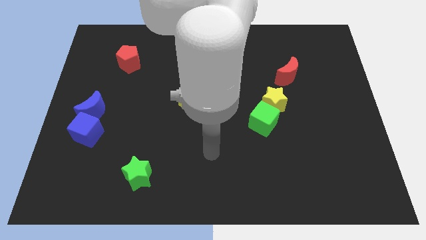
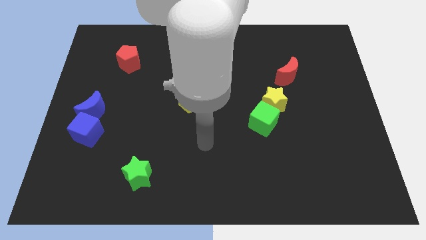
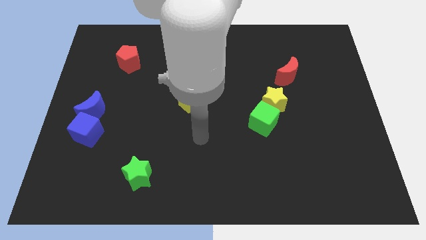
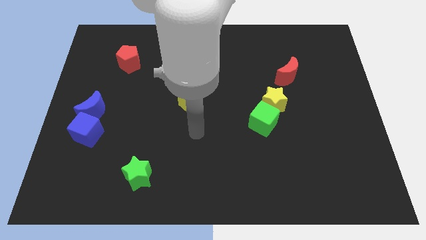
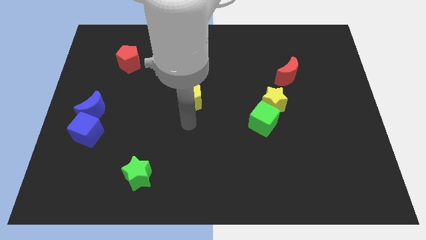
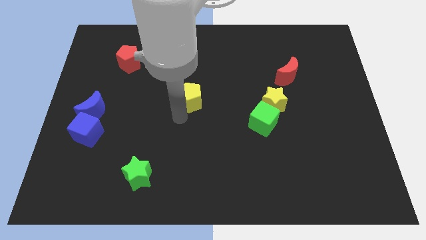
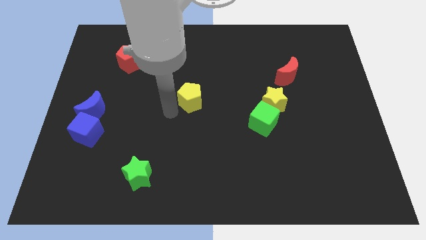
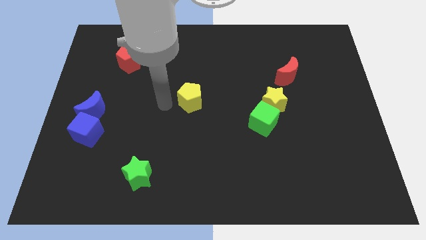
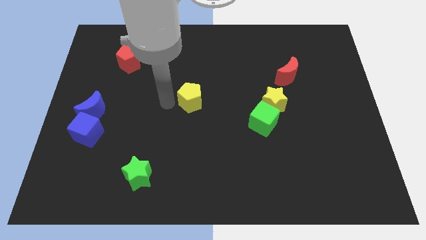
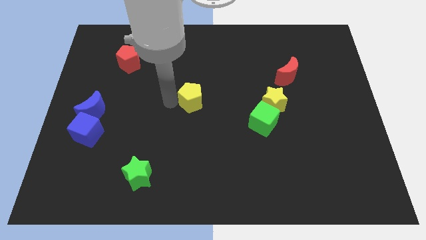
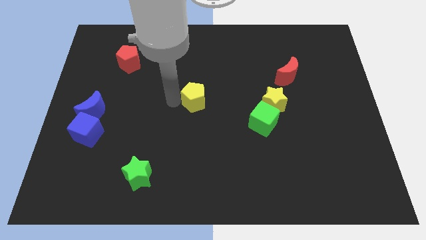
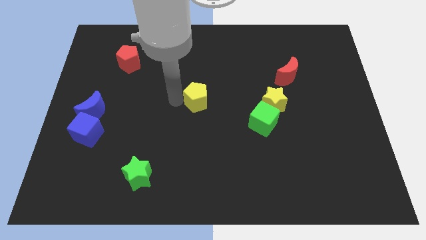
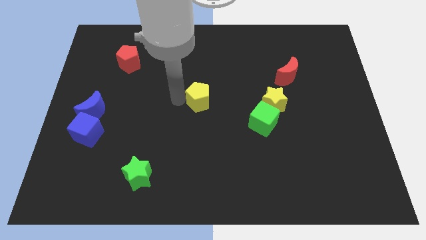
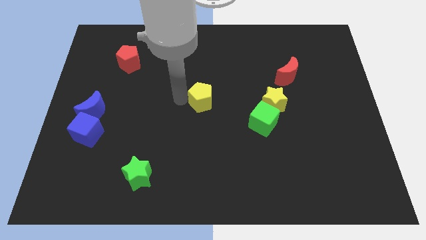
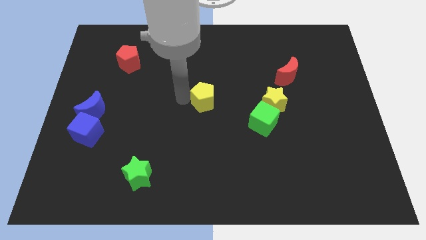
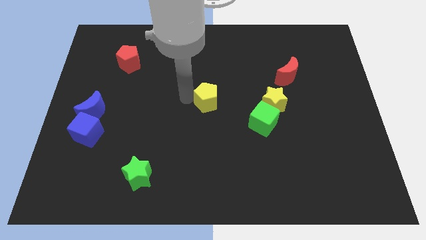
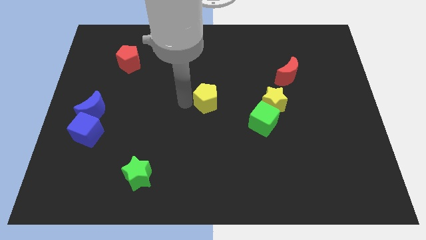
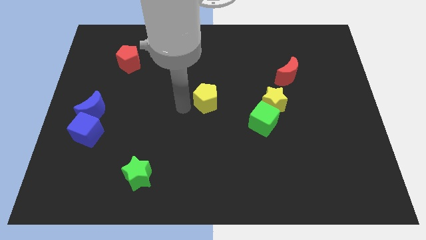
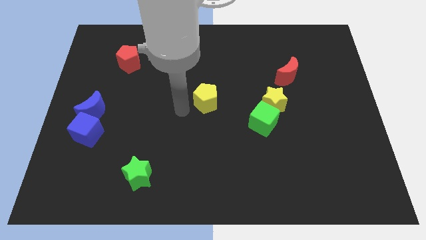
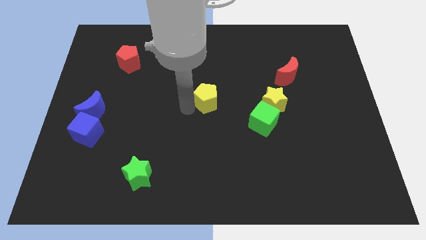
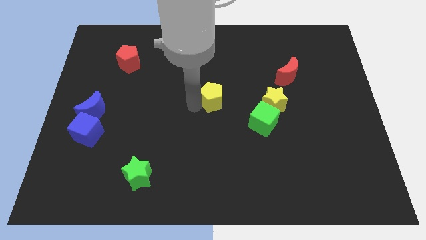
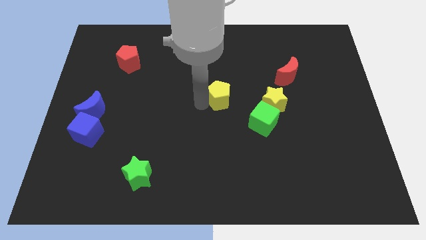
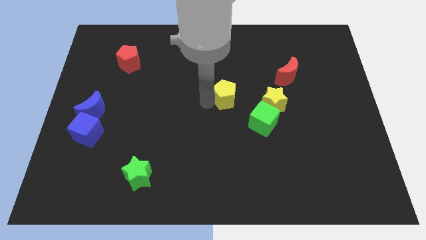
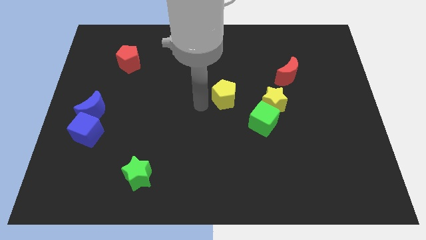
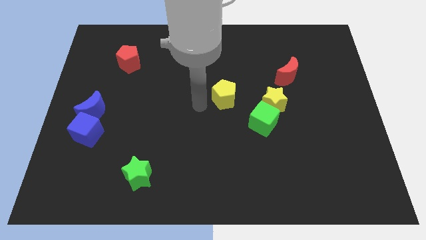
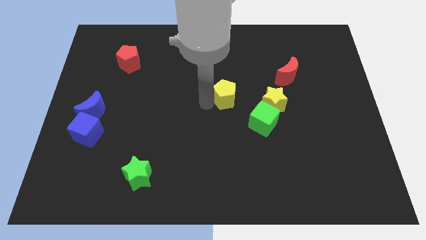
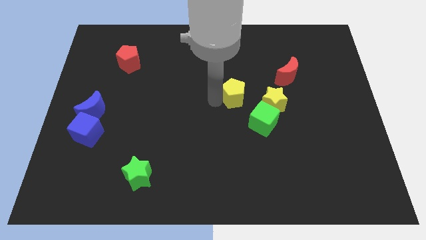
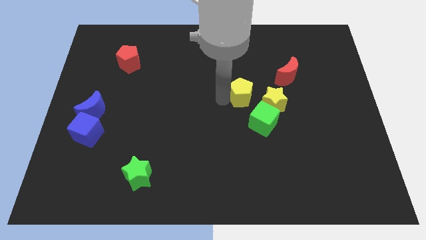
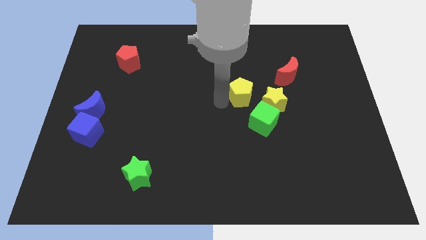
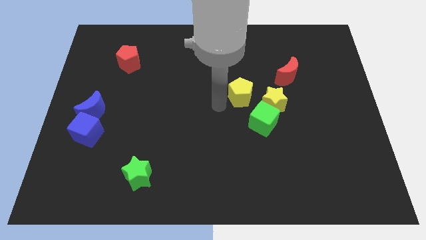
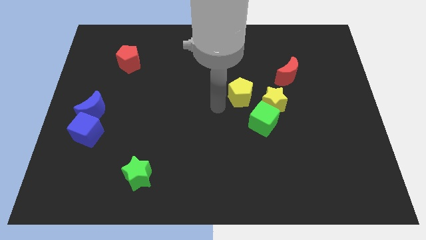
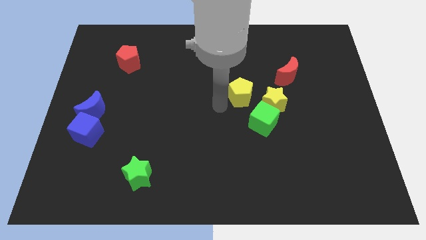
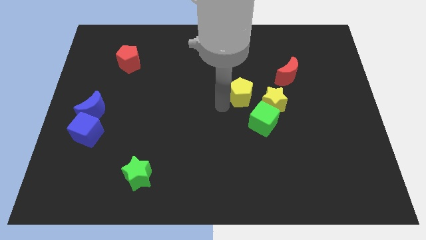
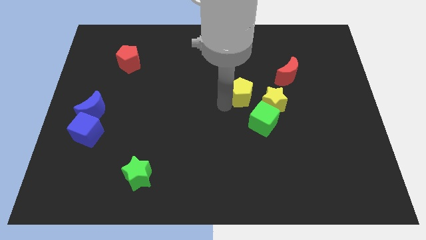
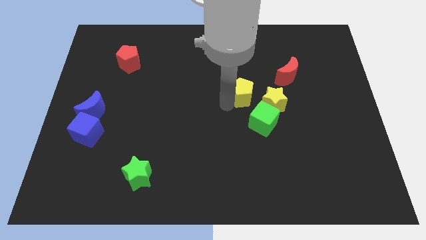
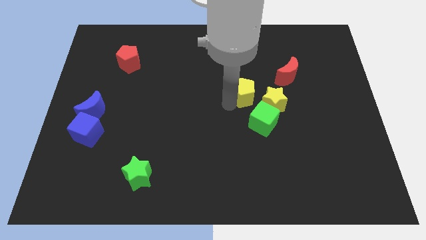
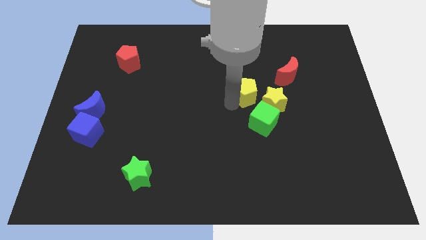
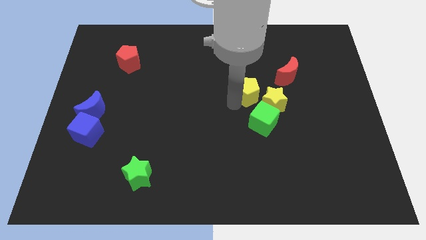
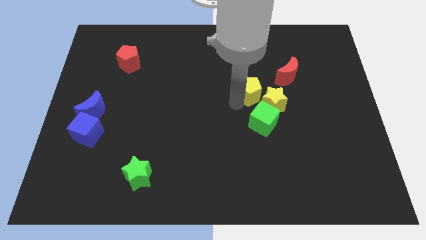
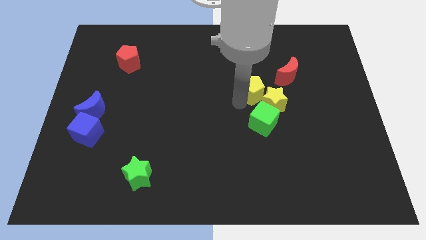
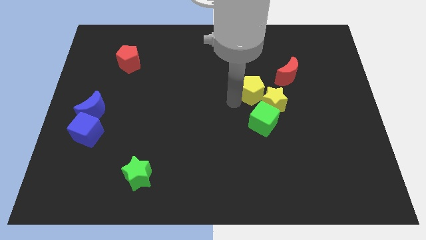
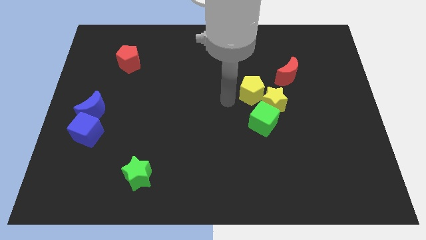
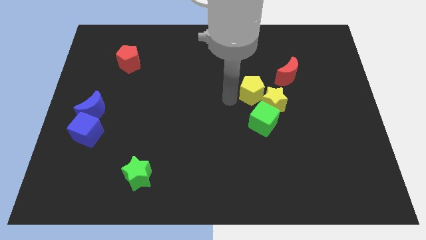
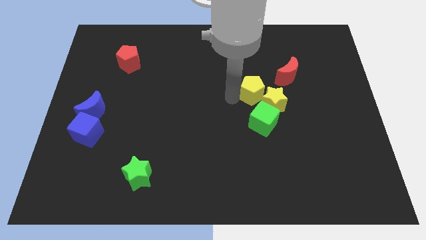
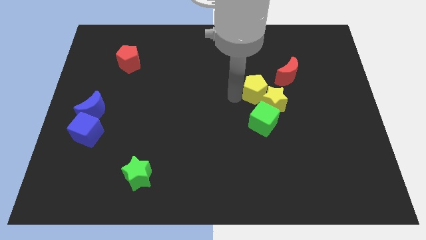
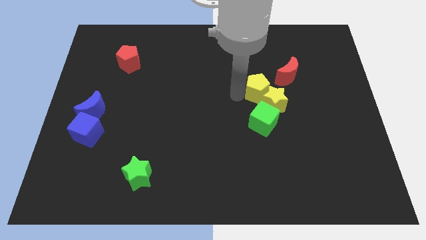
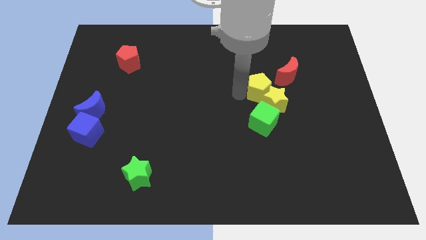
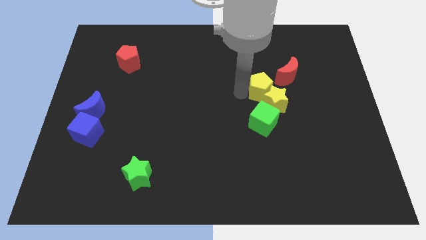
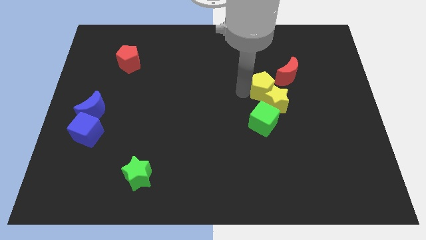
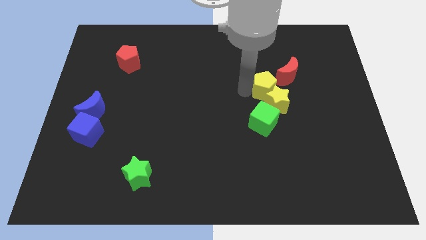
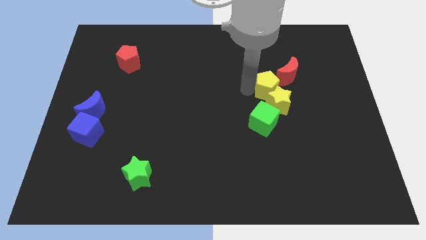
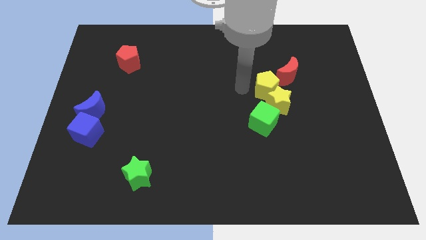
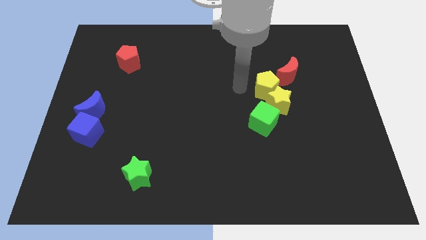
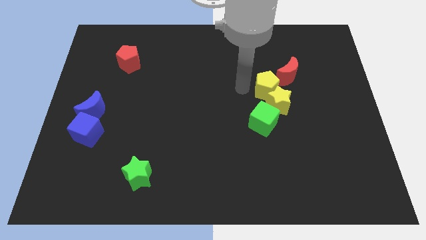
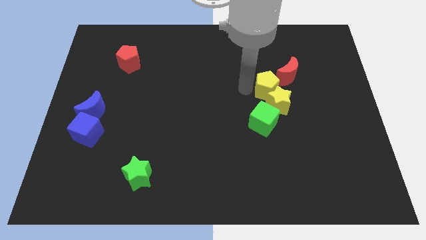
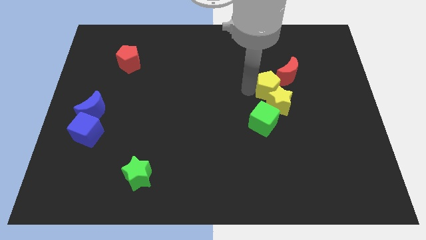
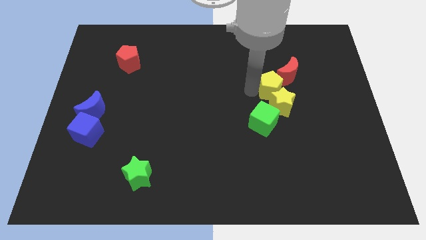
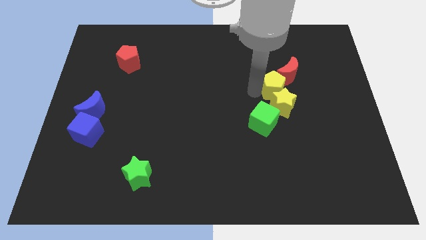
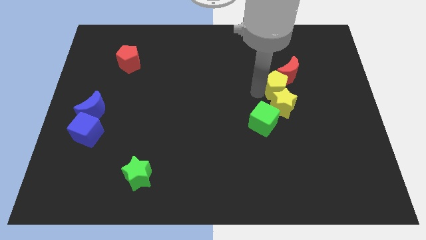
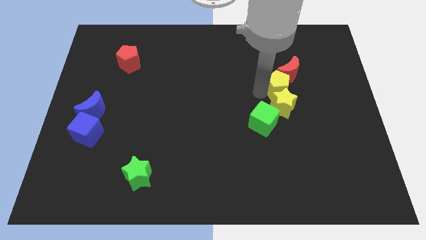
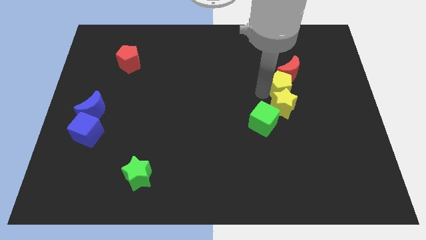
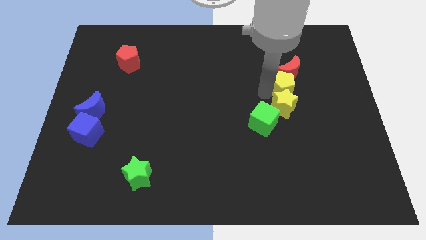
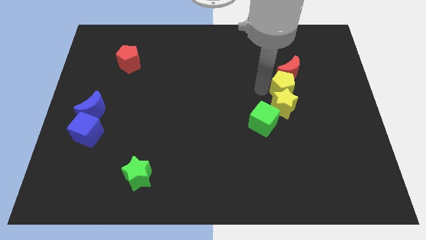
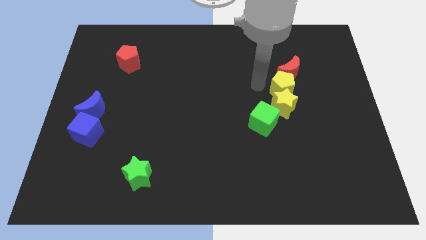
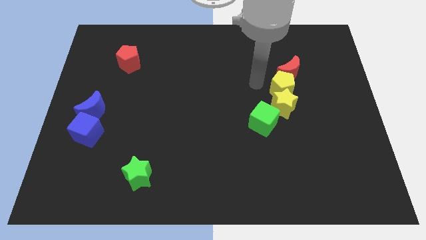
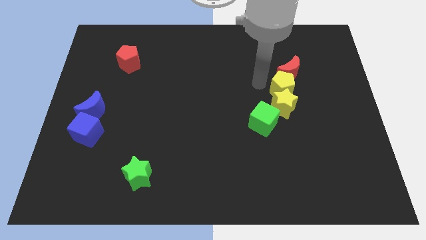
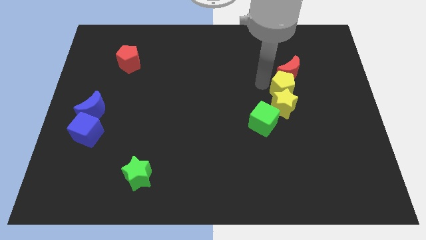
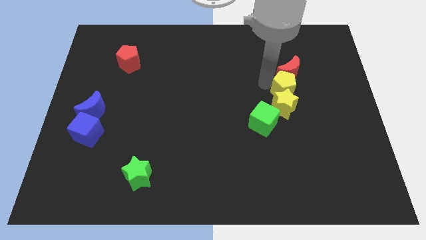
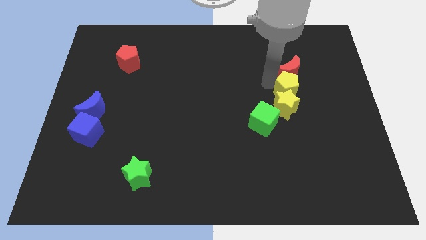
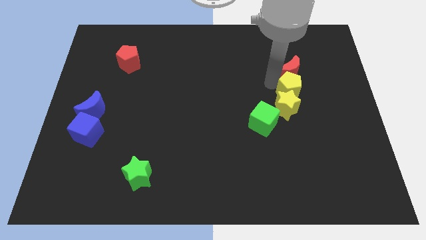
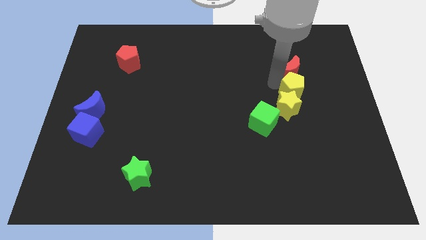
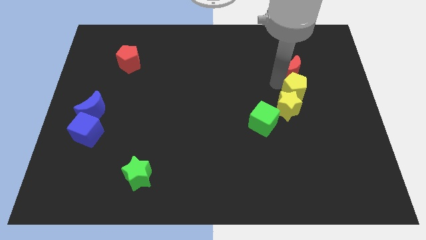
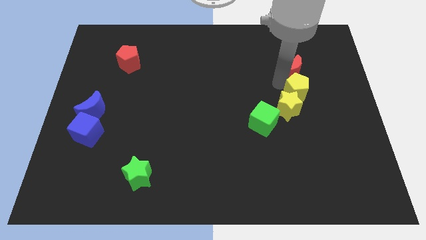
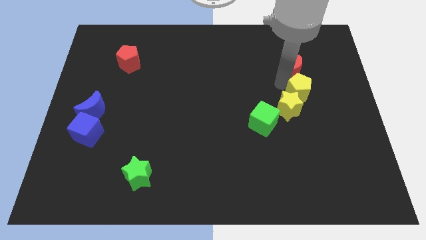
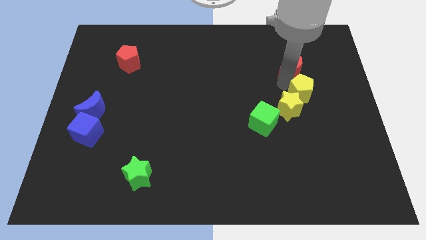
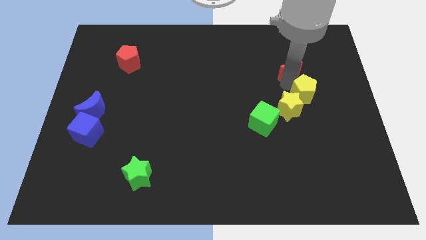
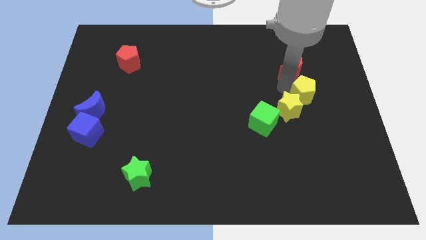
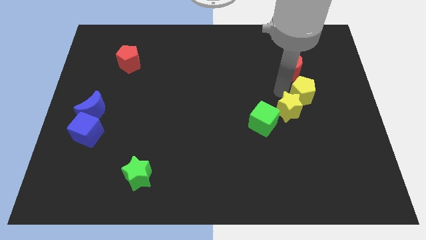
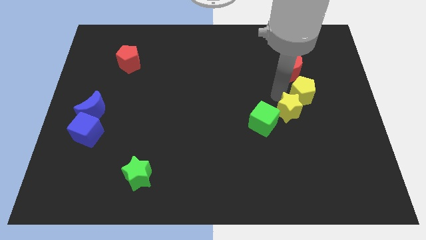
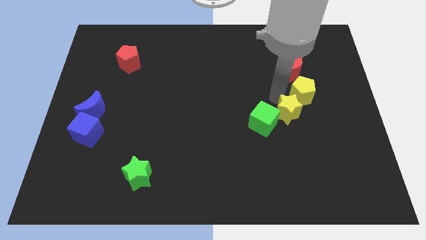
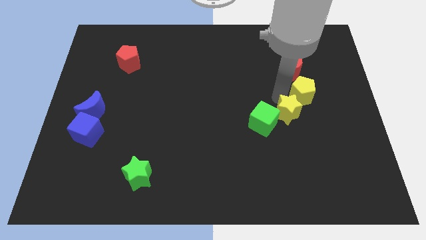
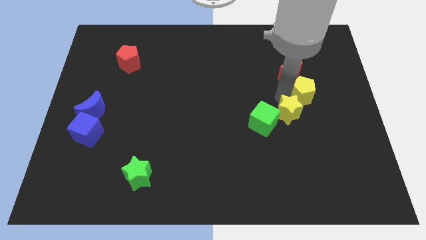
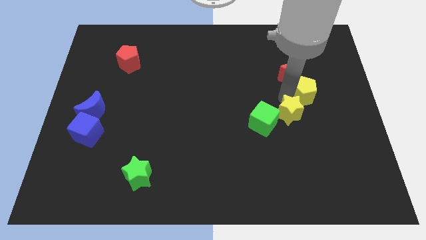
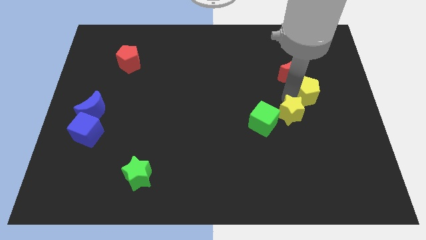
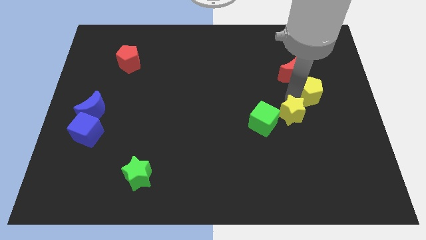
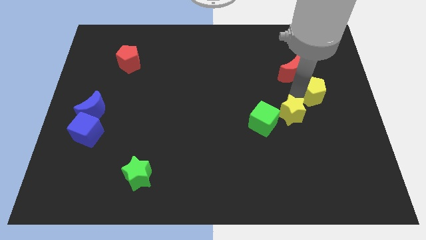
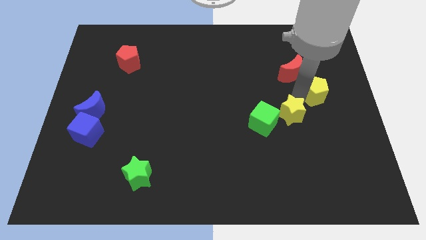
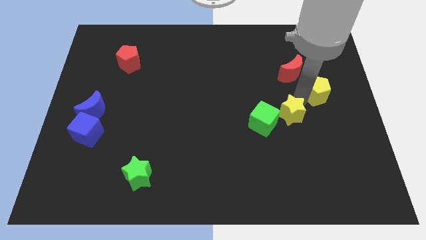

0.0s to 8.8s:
slide the yellow pentagon to the center right
